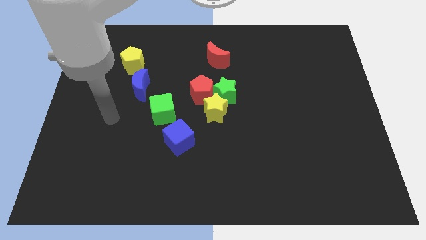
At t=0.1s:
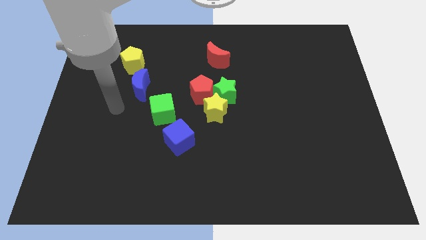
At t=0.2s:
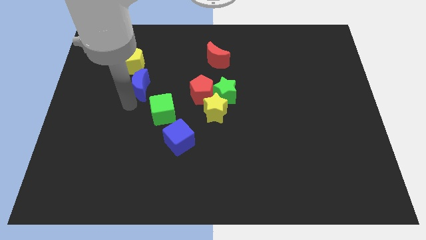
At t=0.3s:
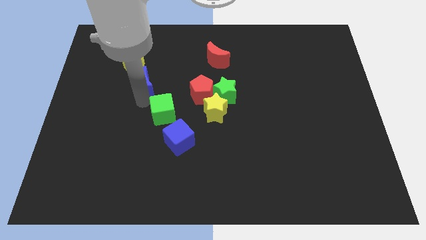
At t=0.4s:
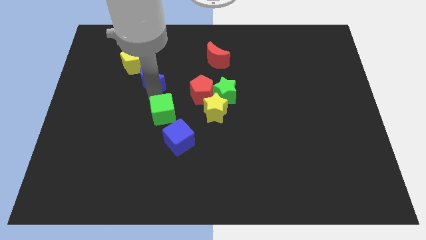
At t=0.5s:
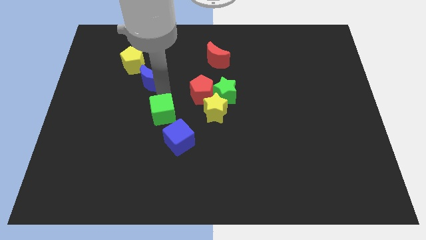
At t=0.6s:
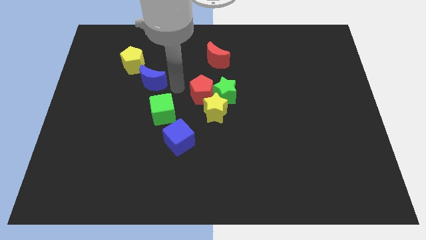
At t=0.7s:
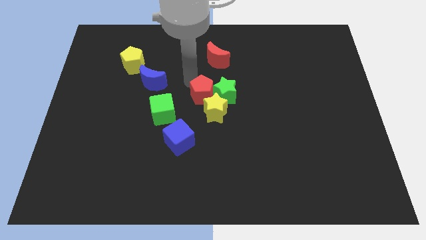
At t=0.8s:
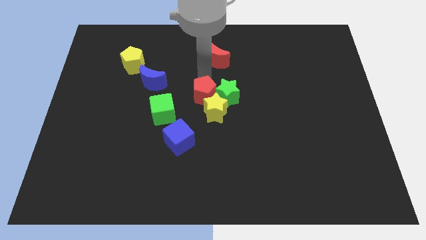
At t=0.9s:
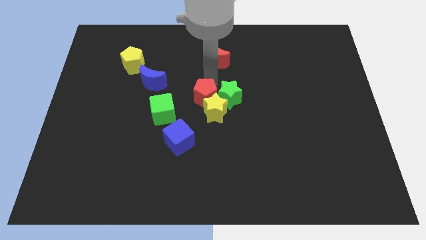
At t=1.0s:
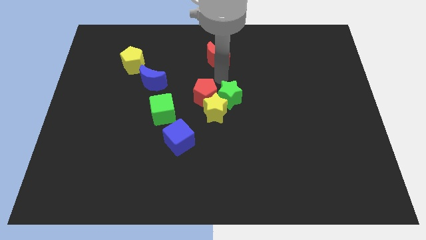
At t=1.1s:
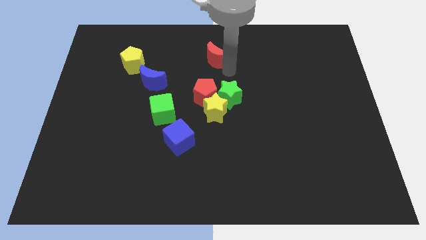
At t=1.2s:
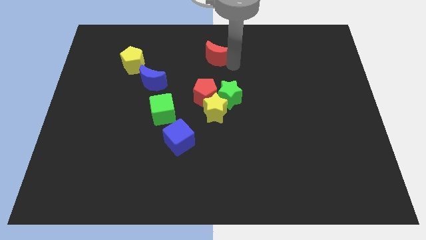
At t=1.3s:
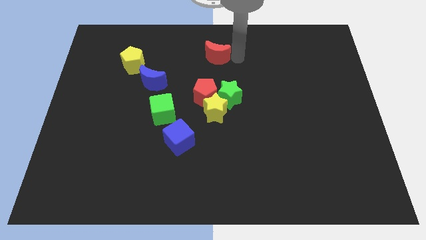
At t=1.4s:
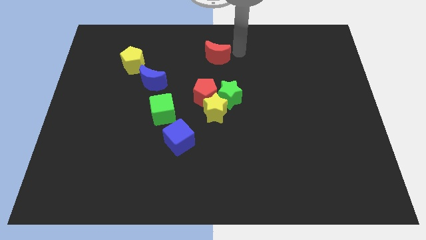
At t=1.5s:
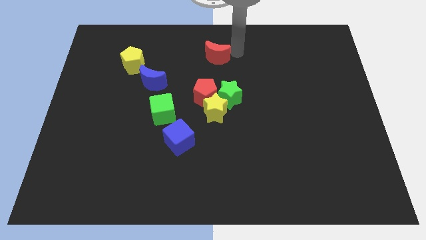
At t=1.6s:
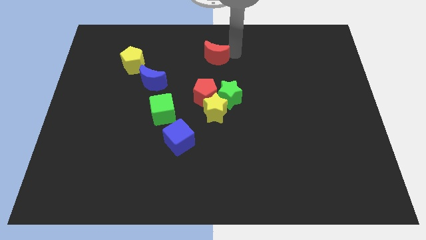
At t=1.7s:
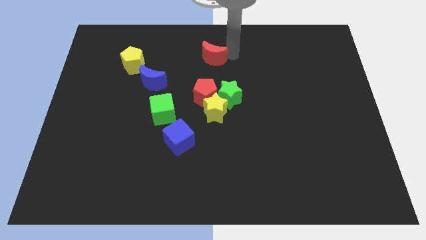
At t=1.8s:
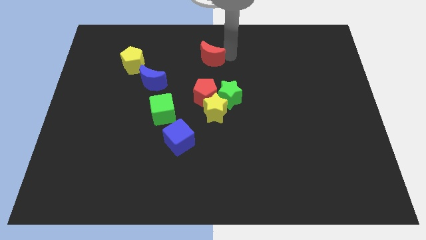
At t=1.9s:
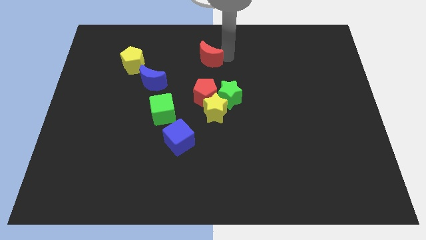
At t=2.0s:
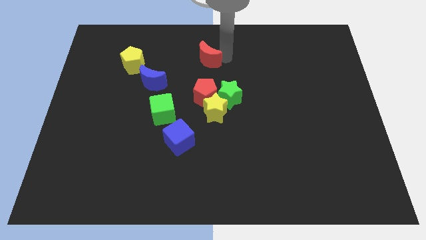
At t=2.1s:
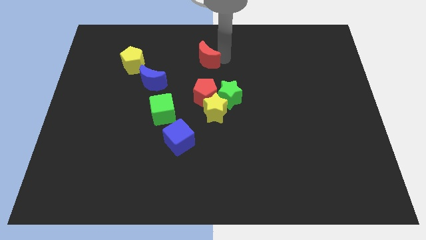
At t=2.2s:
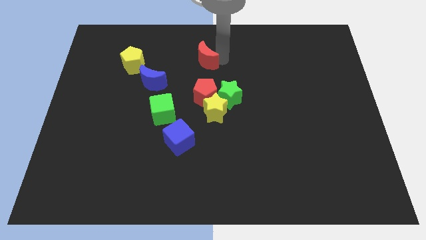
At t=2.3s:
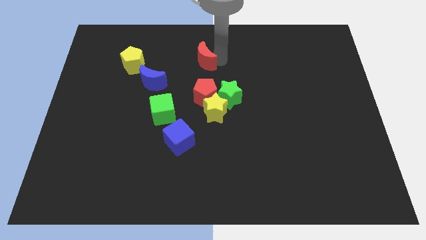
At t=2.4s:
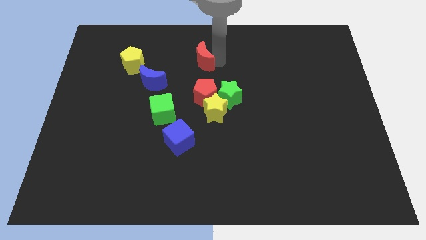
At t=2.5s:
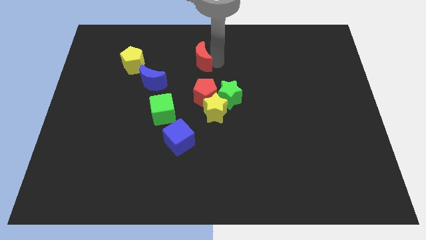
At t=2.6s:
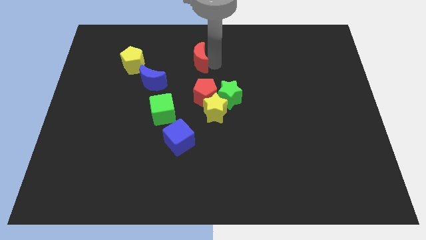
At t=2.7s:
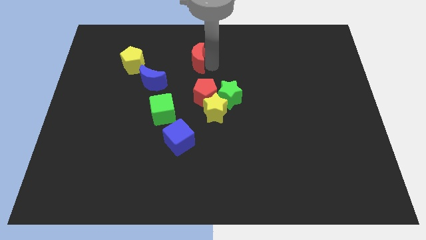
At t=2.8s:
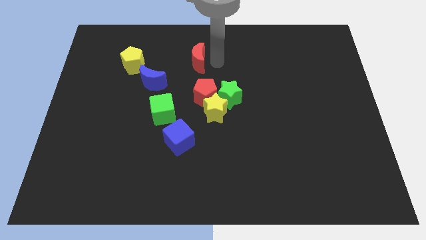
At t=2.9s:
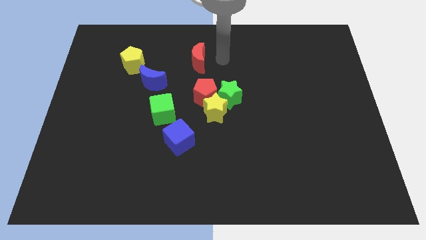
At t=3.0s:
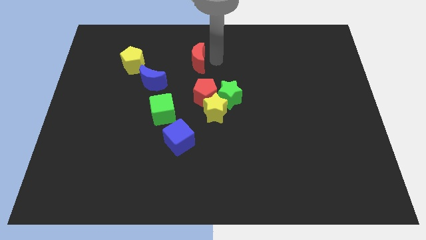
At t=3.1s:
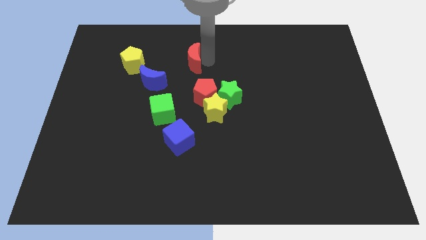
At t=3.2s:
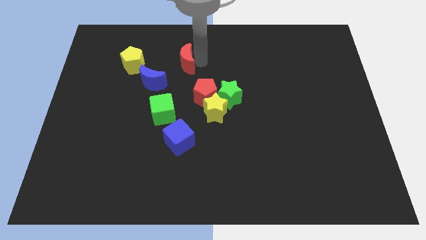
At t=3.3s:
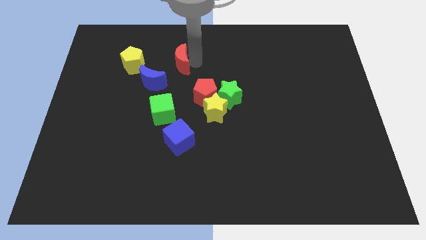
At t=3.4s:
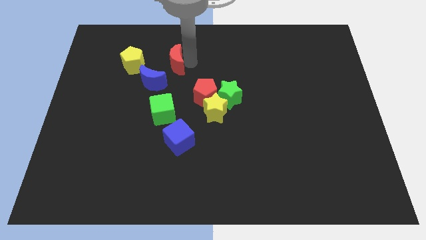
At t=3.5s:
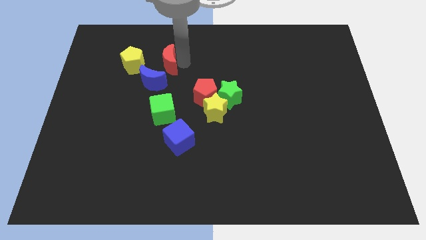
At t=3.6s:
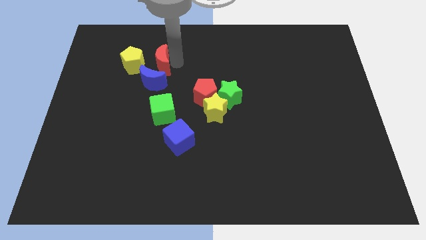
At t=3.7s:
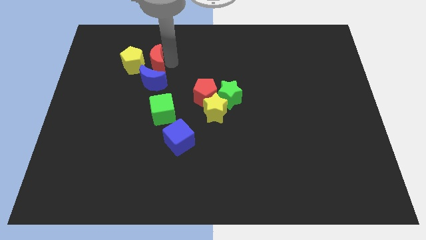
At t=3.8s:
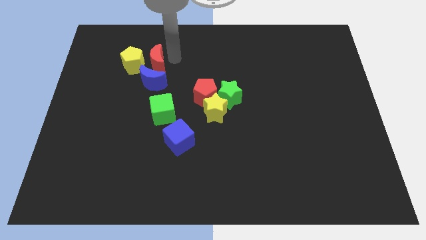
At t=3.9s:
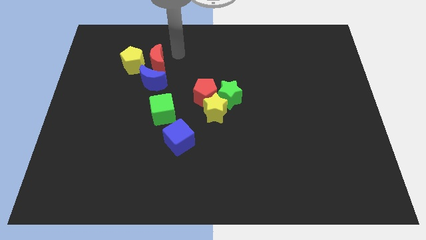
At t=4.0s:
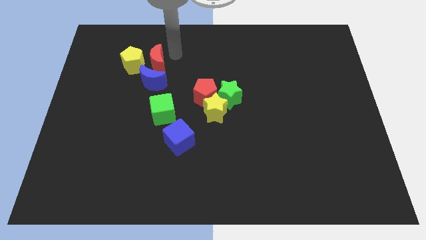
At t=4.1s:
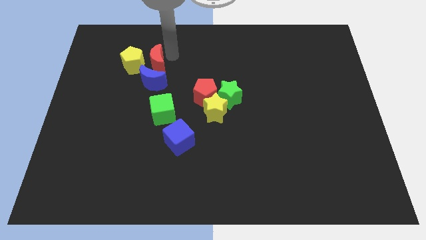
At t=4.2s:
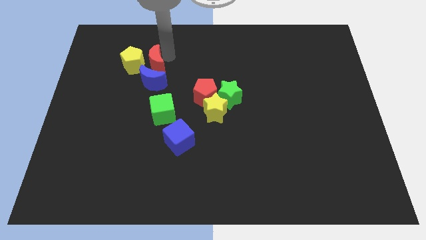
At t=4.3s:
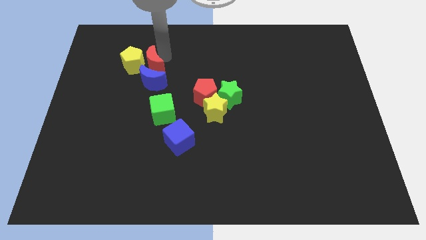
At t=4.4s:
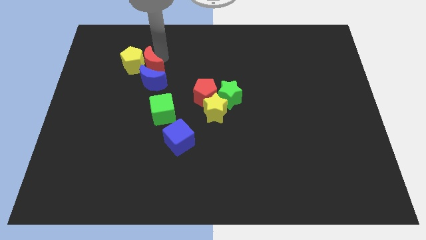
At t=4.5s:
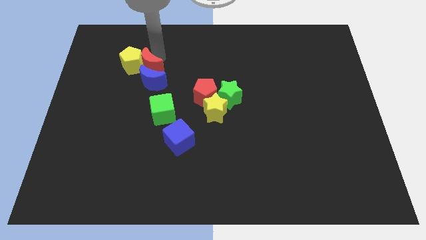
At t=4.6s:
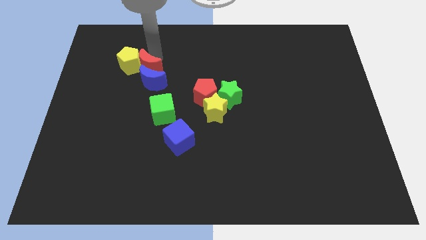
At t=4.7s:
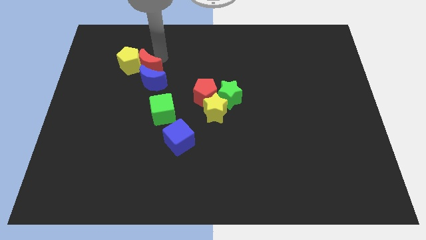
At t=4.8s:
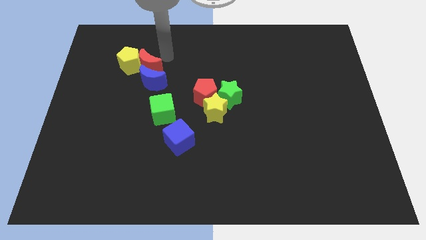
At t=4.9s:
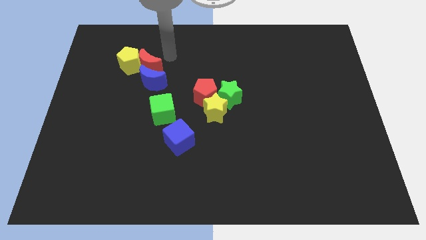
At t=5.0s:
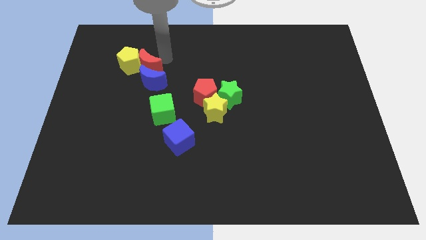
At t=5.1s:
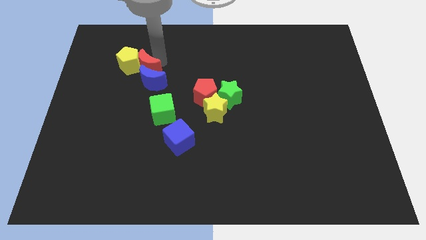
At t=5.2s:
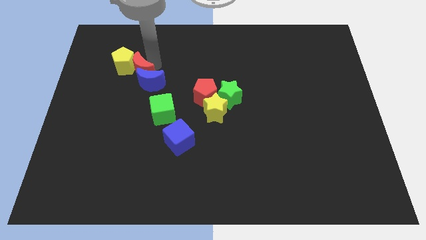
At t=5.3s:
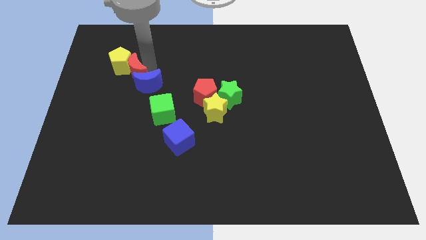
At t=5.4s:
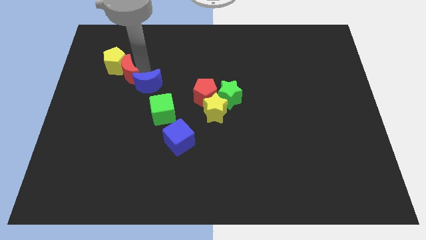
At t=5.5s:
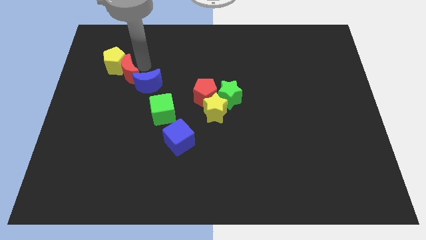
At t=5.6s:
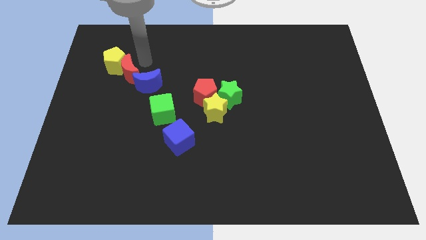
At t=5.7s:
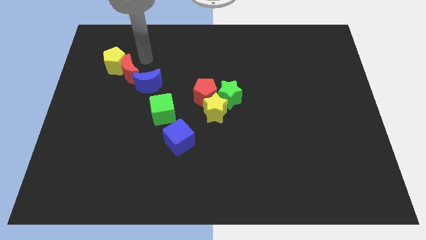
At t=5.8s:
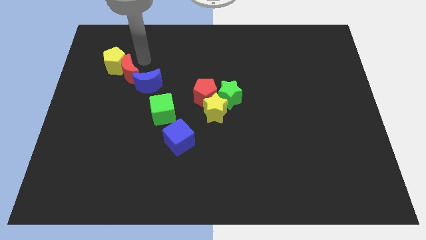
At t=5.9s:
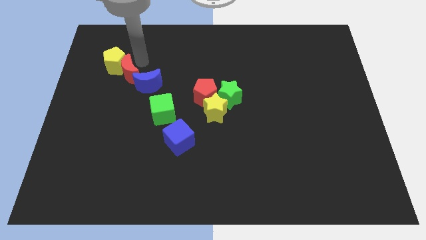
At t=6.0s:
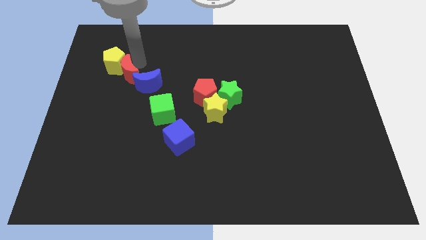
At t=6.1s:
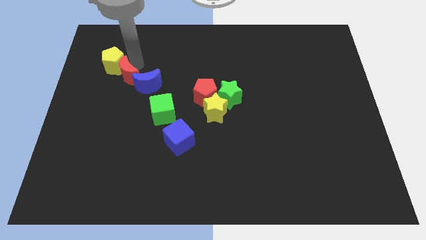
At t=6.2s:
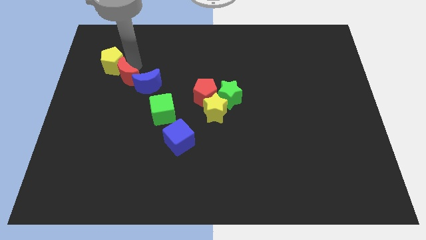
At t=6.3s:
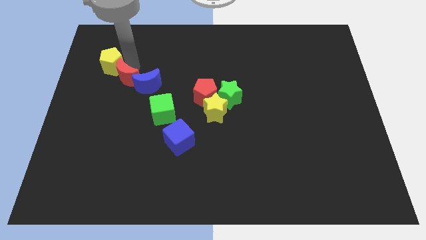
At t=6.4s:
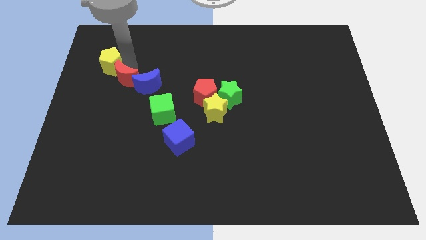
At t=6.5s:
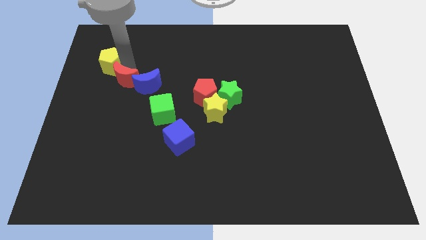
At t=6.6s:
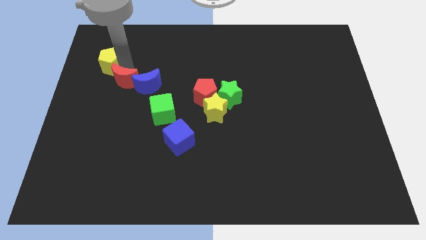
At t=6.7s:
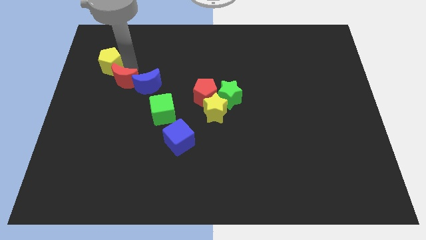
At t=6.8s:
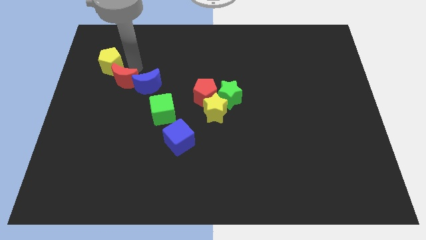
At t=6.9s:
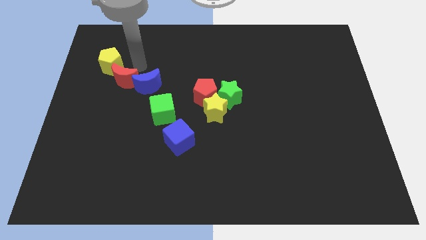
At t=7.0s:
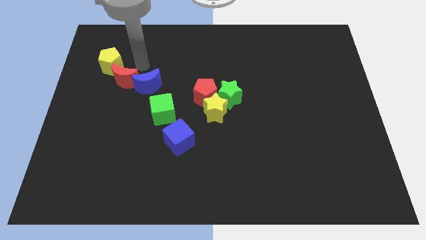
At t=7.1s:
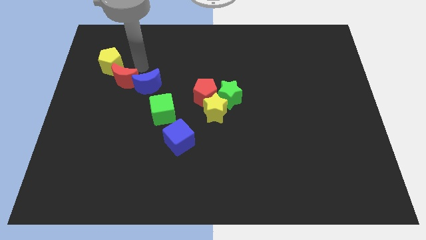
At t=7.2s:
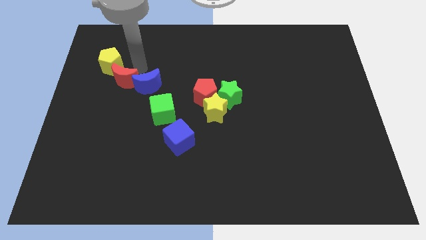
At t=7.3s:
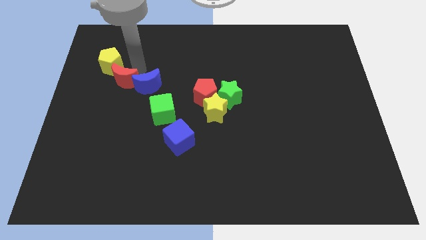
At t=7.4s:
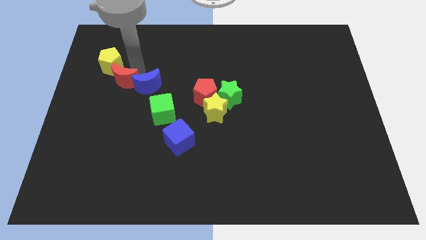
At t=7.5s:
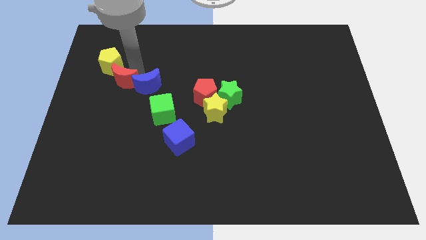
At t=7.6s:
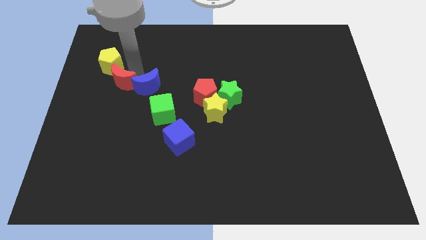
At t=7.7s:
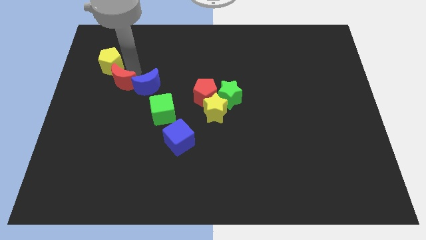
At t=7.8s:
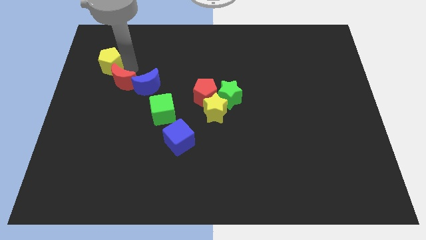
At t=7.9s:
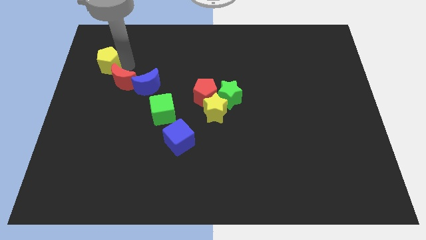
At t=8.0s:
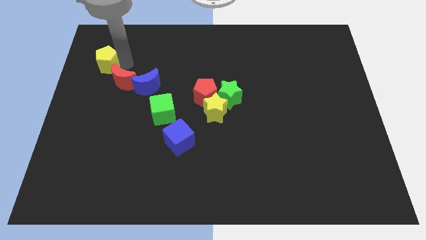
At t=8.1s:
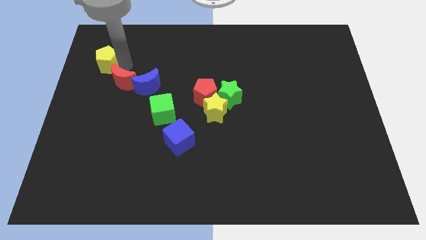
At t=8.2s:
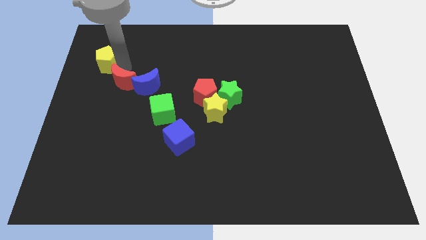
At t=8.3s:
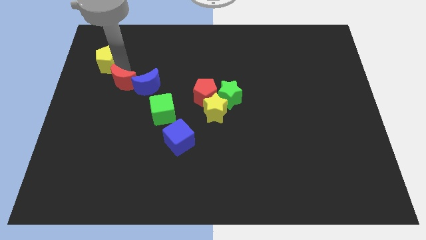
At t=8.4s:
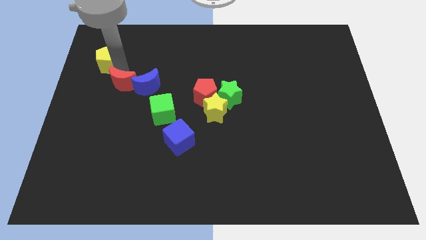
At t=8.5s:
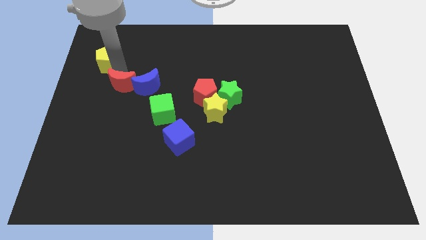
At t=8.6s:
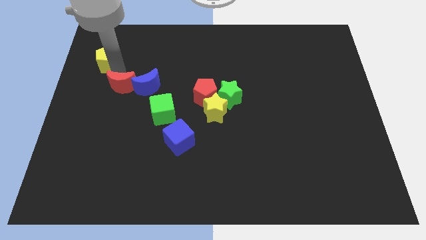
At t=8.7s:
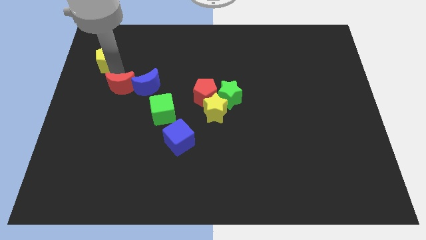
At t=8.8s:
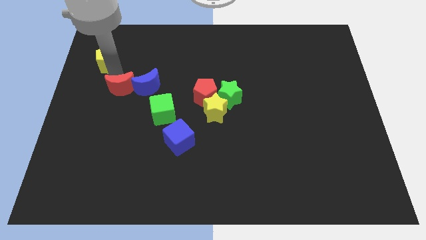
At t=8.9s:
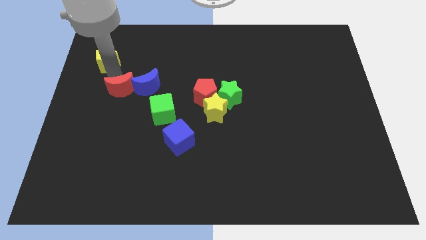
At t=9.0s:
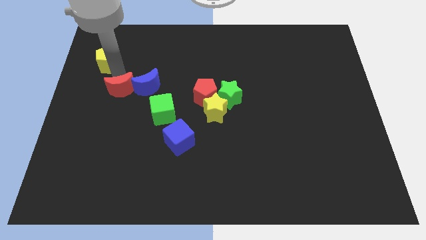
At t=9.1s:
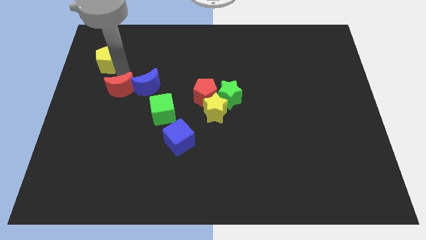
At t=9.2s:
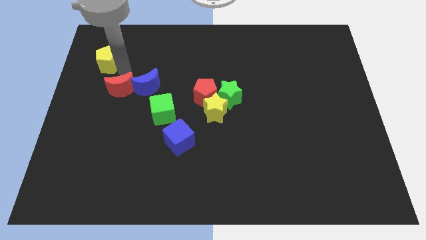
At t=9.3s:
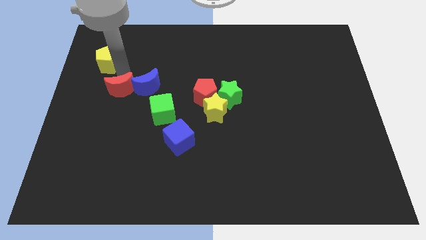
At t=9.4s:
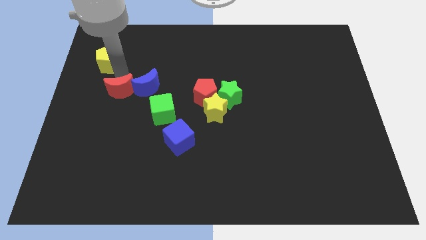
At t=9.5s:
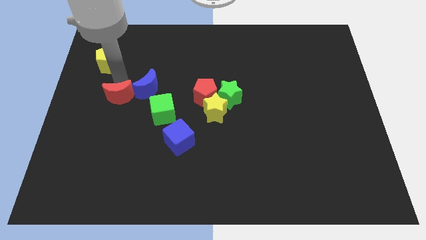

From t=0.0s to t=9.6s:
move the red moon to the left side of the green cube
